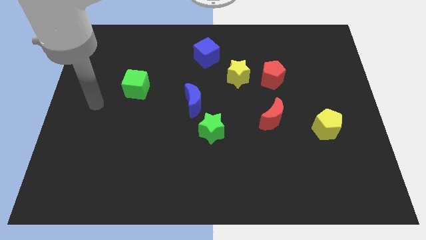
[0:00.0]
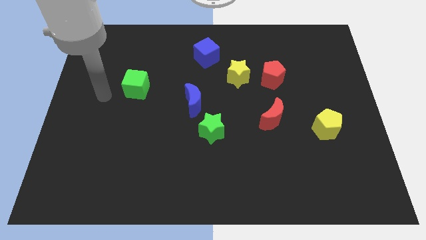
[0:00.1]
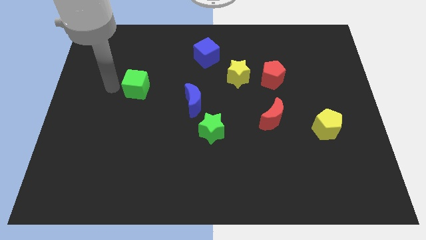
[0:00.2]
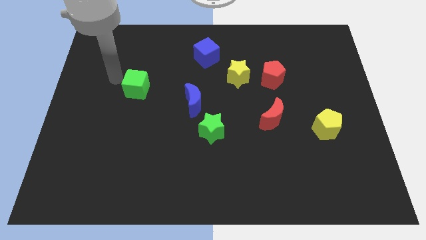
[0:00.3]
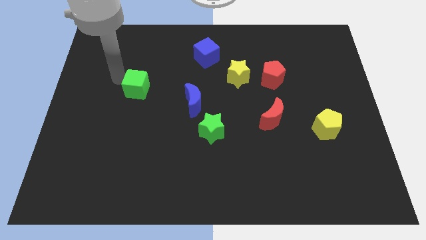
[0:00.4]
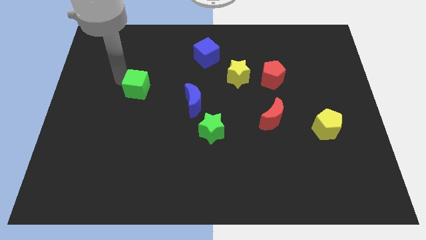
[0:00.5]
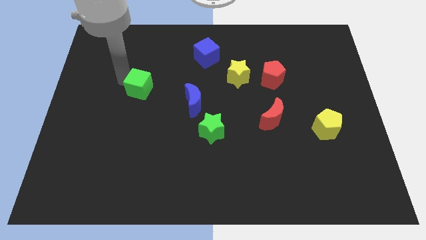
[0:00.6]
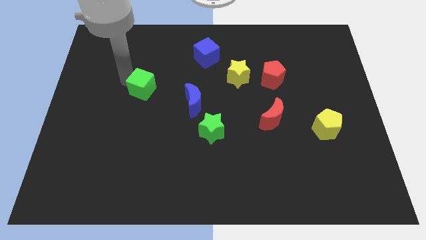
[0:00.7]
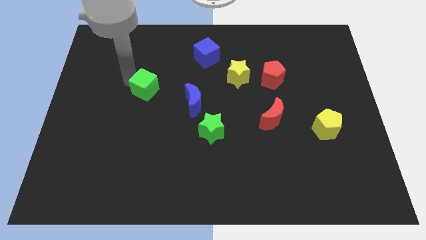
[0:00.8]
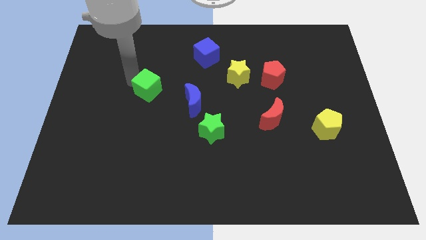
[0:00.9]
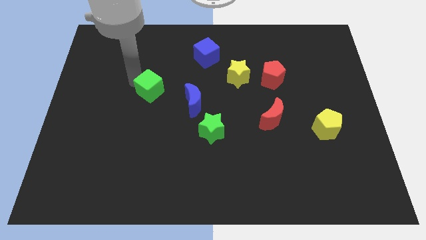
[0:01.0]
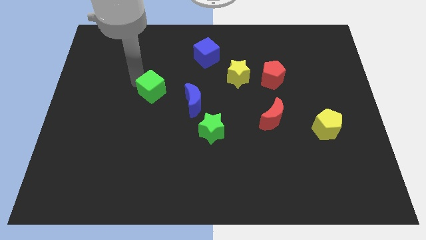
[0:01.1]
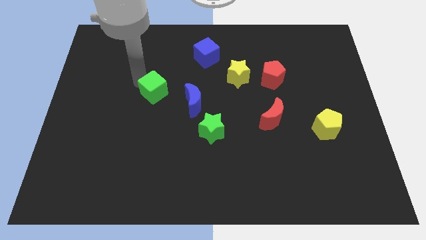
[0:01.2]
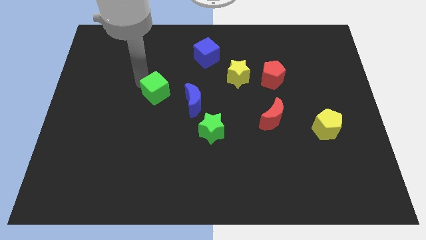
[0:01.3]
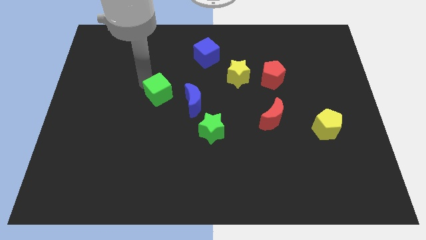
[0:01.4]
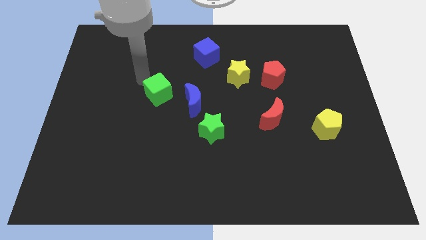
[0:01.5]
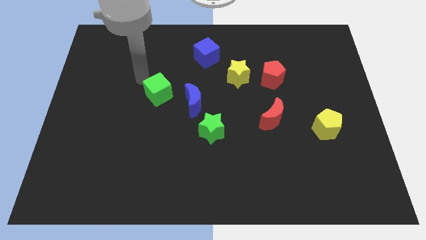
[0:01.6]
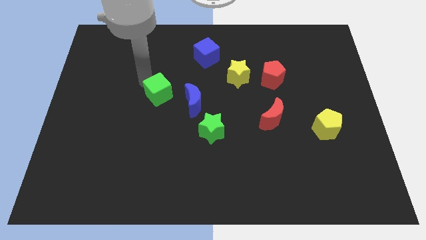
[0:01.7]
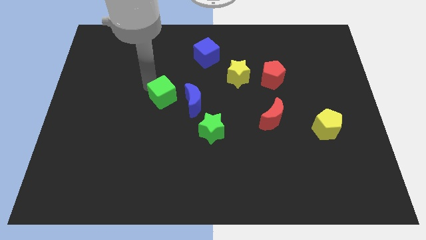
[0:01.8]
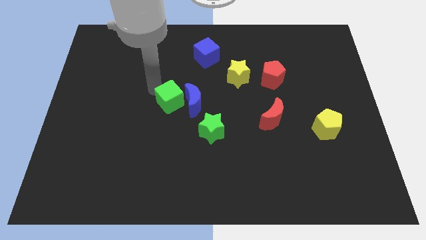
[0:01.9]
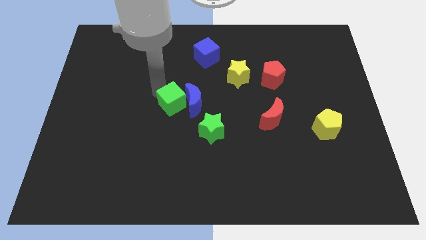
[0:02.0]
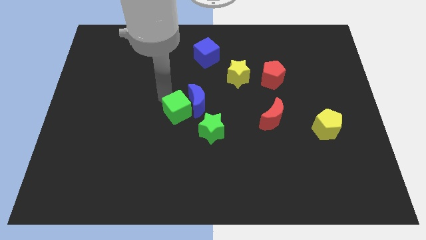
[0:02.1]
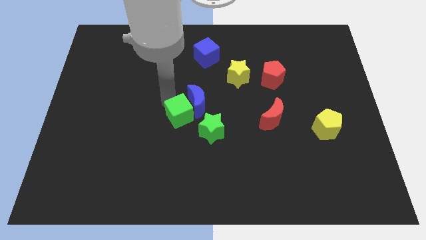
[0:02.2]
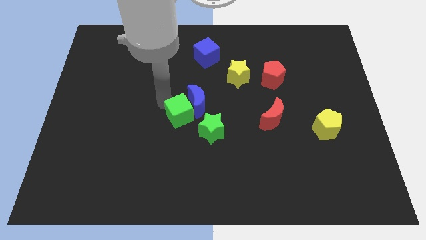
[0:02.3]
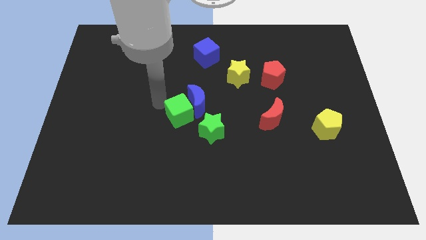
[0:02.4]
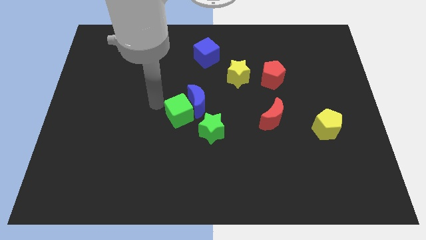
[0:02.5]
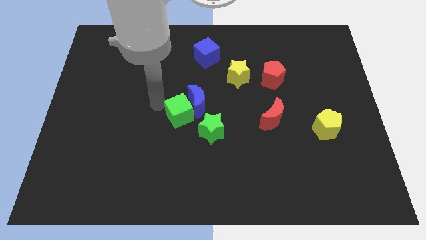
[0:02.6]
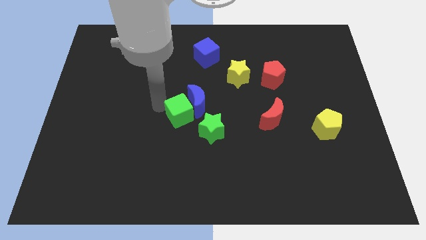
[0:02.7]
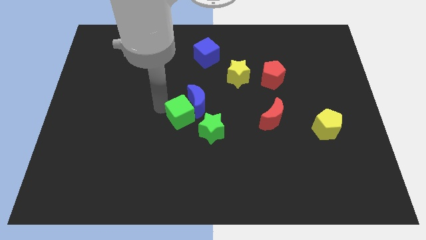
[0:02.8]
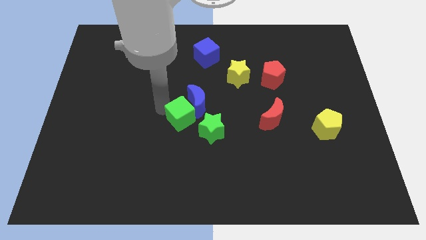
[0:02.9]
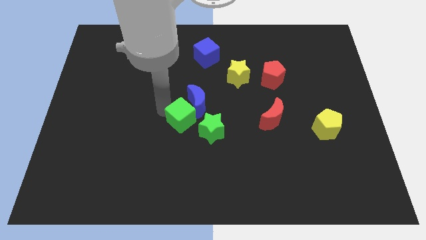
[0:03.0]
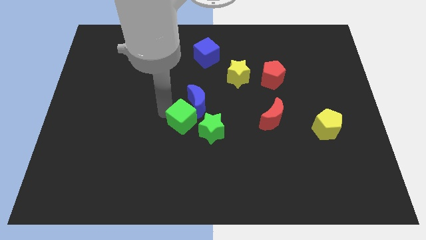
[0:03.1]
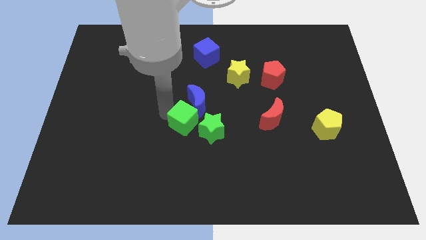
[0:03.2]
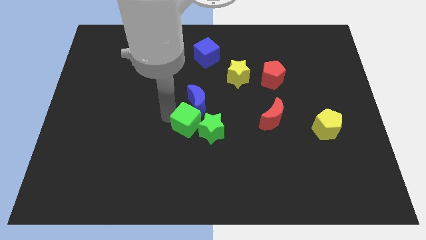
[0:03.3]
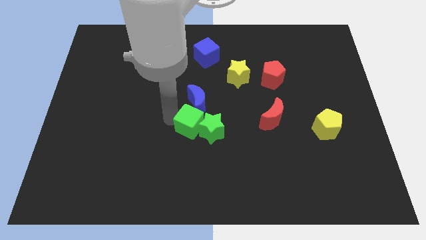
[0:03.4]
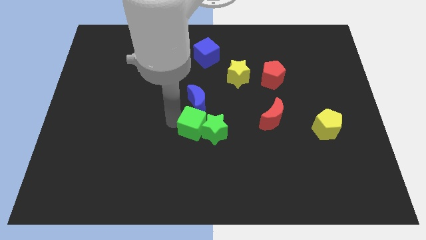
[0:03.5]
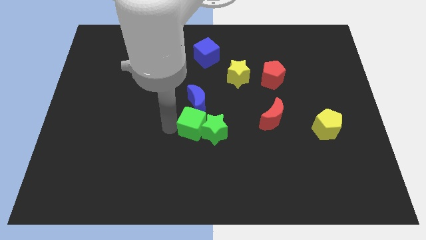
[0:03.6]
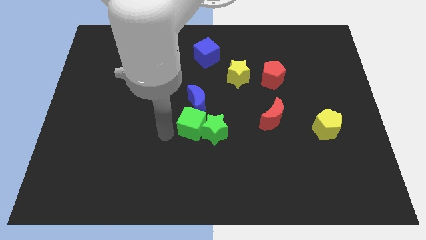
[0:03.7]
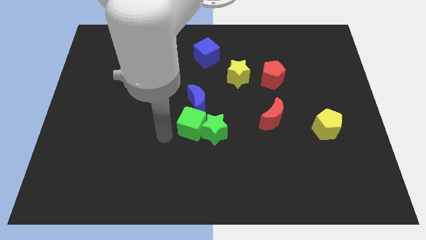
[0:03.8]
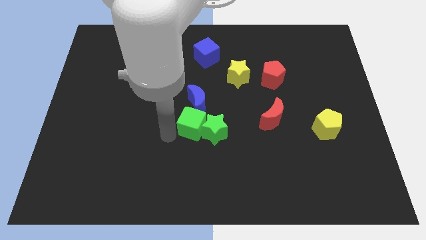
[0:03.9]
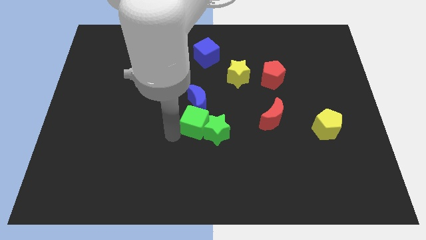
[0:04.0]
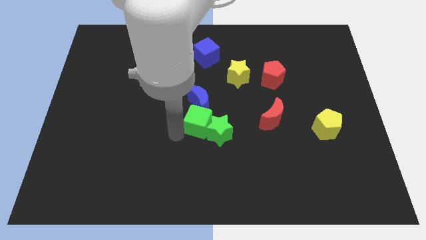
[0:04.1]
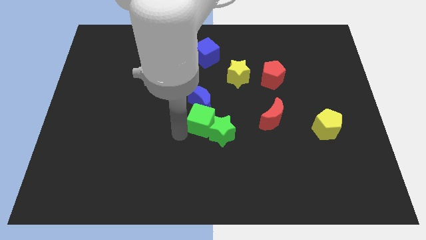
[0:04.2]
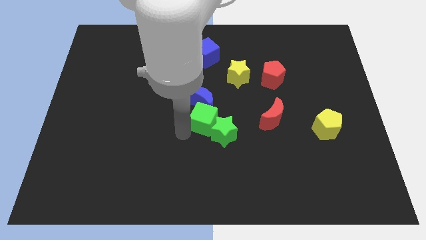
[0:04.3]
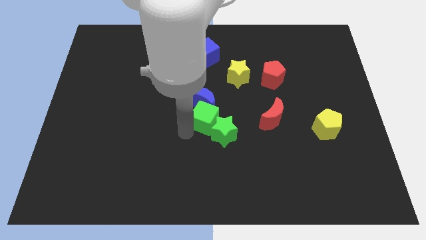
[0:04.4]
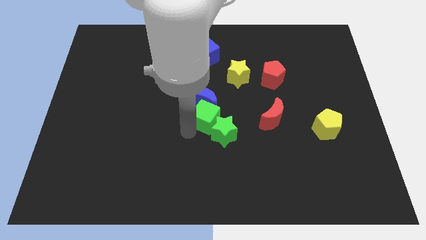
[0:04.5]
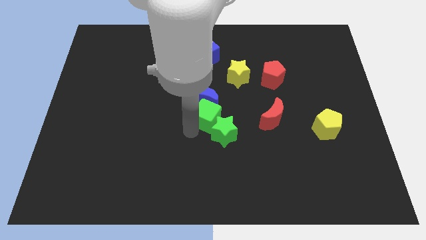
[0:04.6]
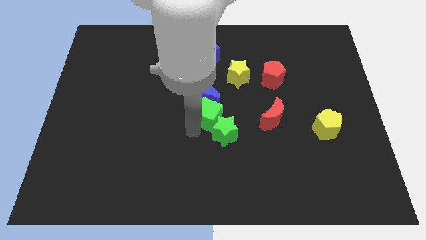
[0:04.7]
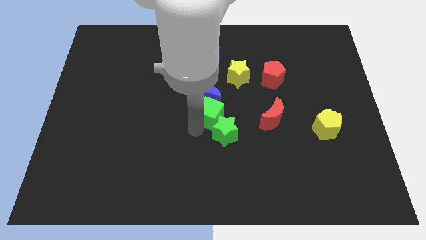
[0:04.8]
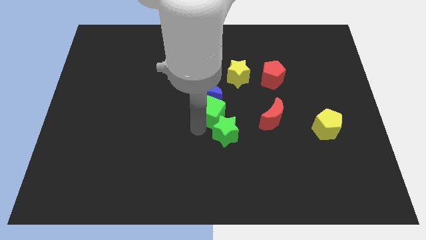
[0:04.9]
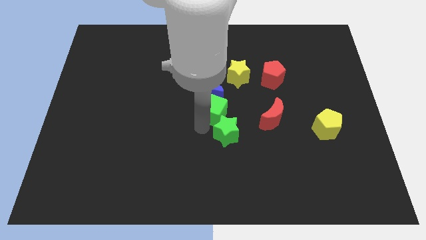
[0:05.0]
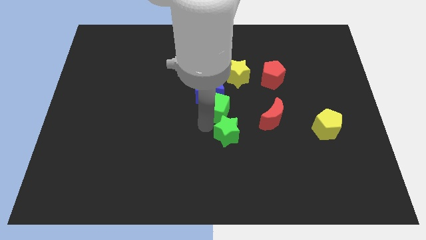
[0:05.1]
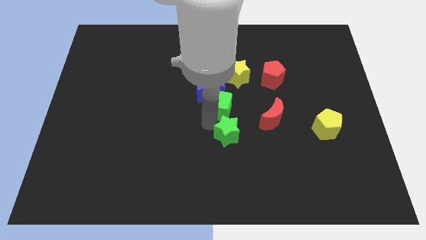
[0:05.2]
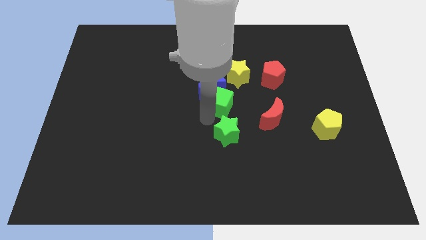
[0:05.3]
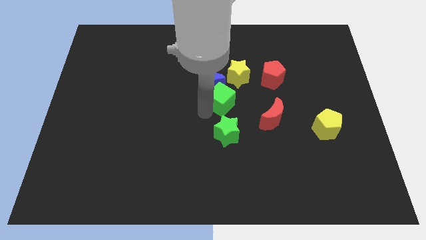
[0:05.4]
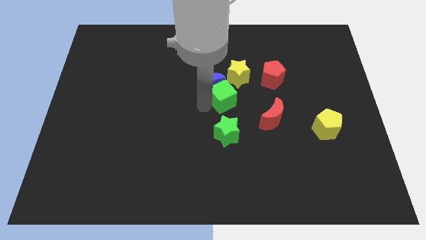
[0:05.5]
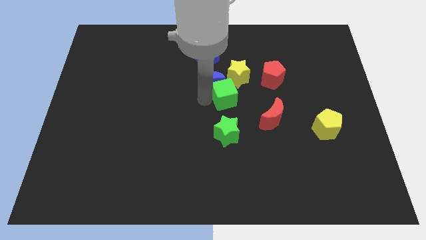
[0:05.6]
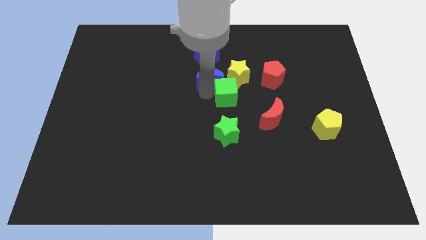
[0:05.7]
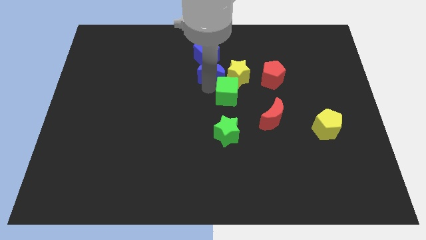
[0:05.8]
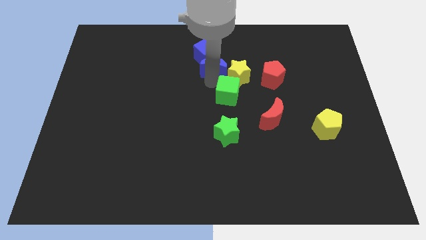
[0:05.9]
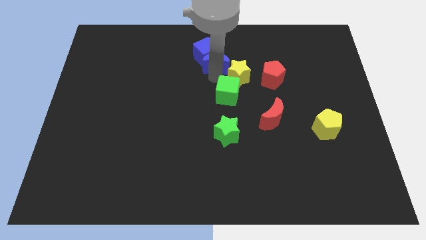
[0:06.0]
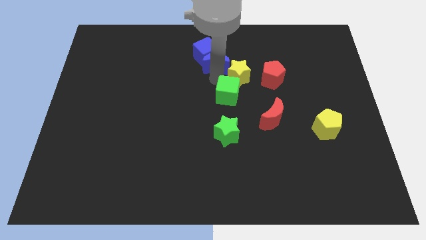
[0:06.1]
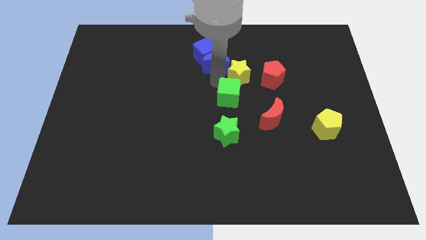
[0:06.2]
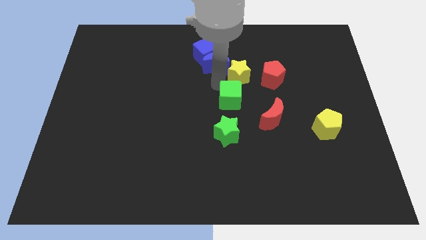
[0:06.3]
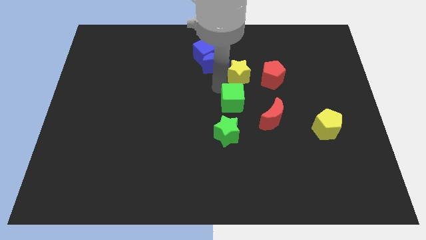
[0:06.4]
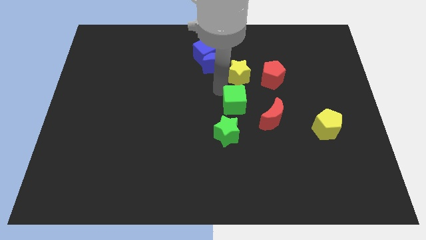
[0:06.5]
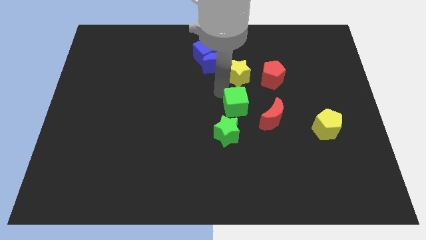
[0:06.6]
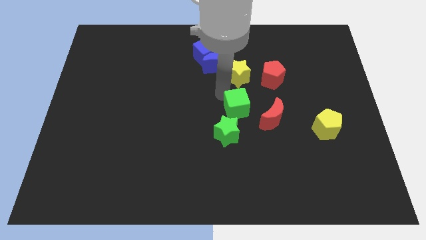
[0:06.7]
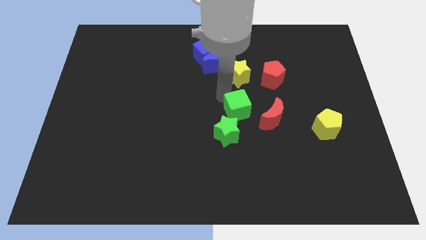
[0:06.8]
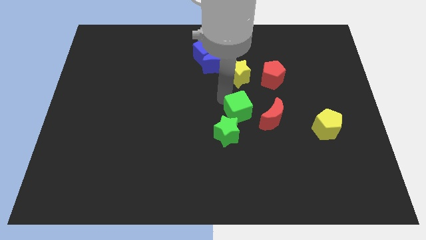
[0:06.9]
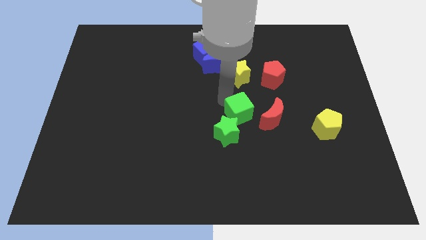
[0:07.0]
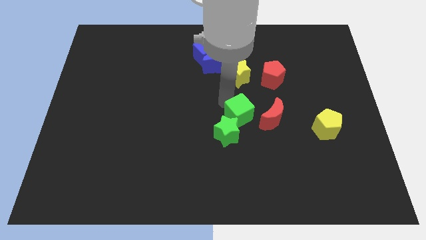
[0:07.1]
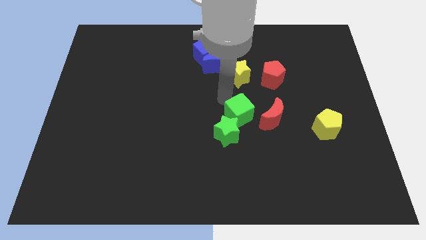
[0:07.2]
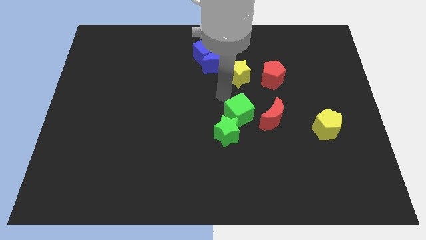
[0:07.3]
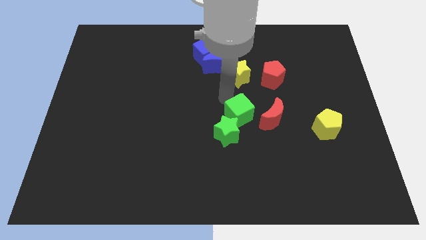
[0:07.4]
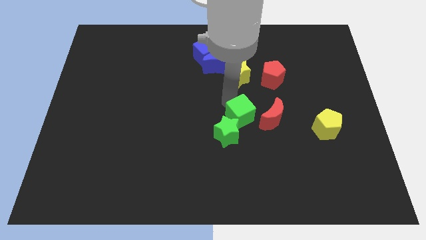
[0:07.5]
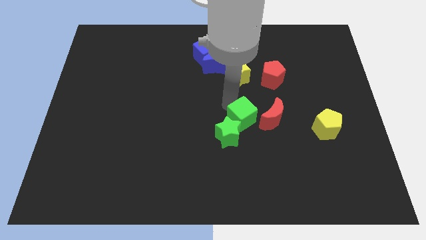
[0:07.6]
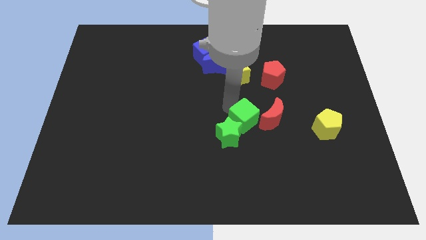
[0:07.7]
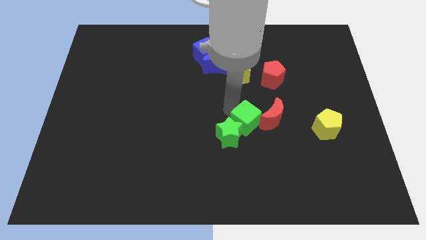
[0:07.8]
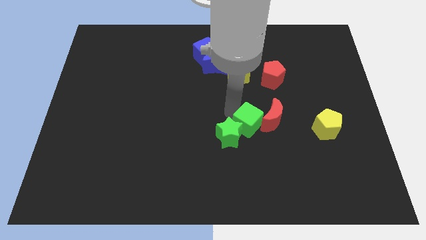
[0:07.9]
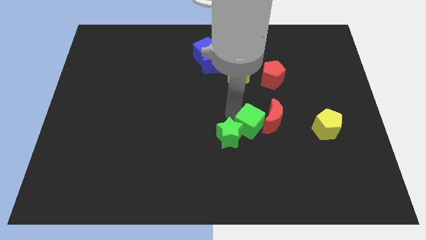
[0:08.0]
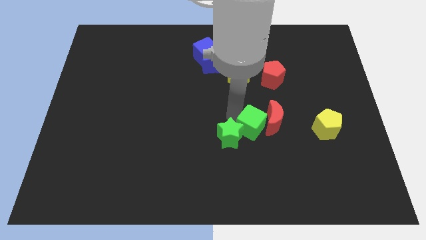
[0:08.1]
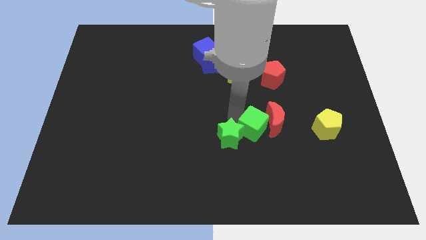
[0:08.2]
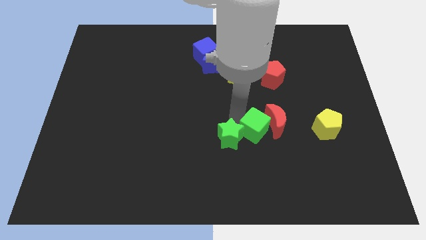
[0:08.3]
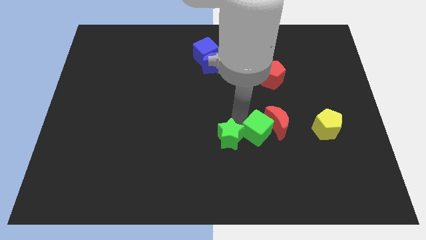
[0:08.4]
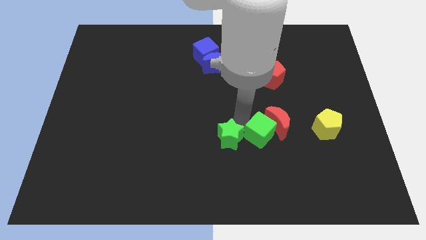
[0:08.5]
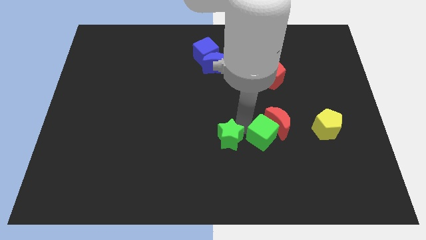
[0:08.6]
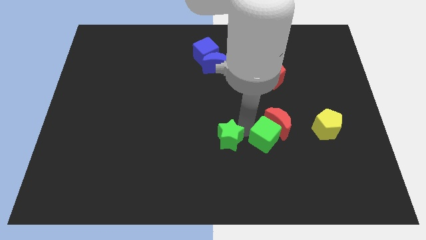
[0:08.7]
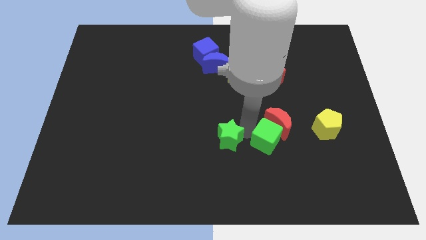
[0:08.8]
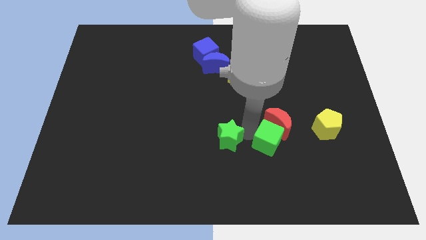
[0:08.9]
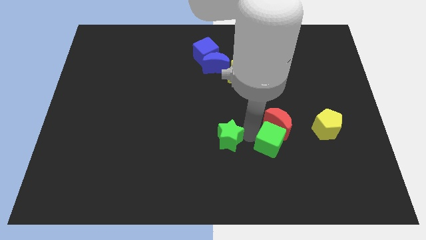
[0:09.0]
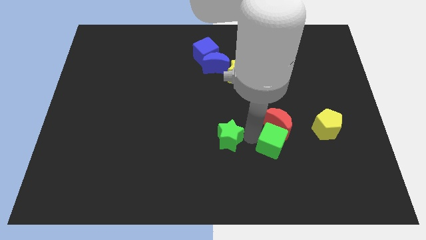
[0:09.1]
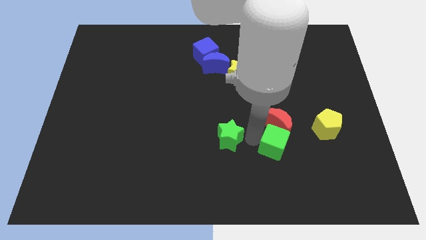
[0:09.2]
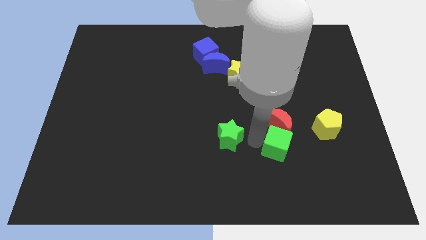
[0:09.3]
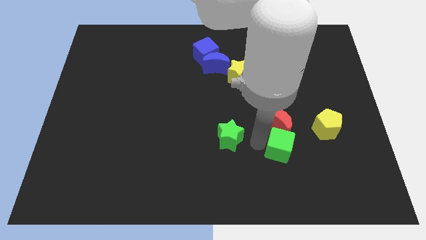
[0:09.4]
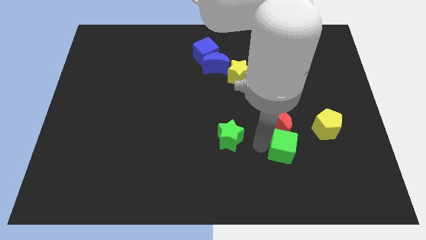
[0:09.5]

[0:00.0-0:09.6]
move the green cube diagonally down and to the left of the yellow pentagon
